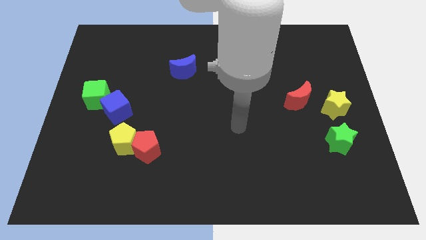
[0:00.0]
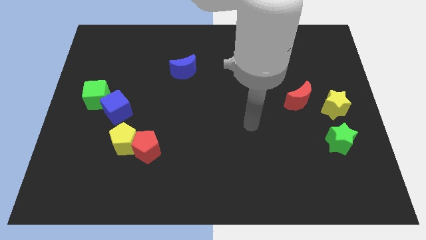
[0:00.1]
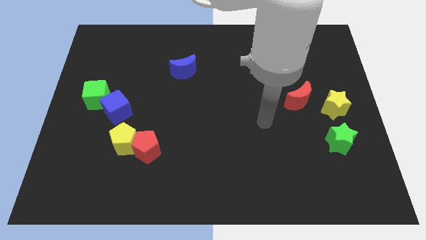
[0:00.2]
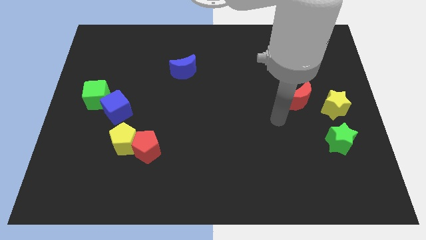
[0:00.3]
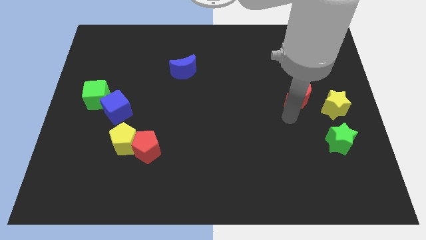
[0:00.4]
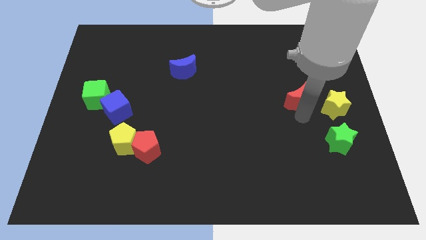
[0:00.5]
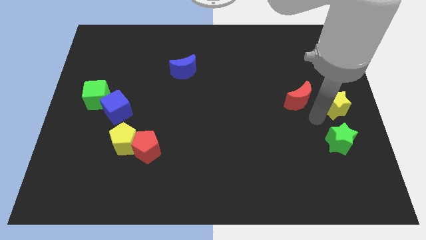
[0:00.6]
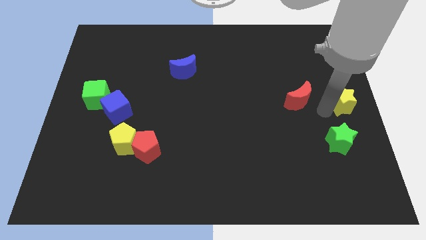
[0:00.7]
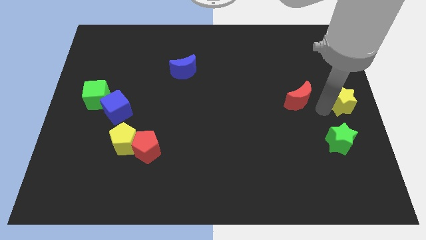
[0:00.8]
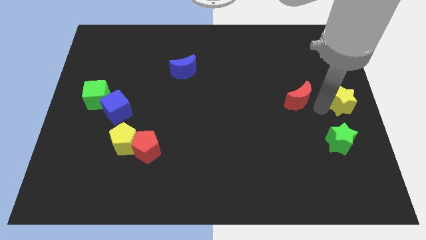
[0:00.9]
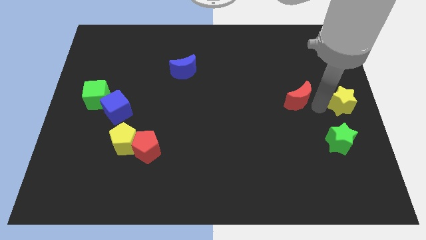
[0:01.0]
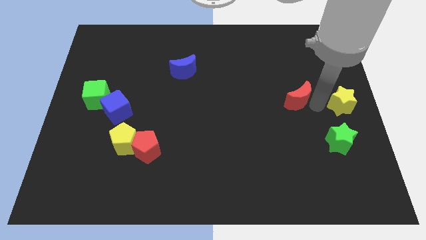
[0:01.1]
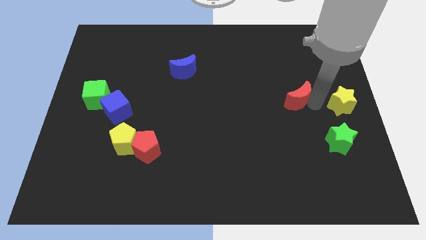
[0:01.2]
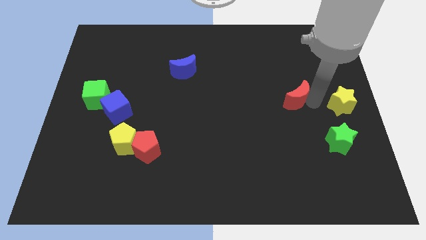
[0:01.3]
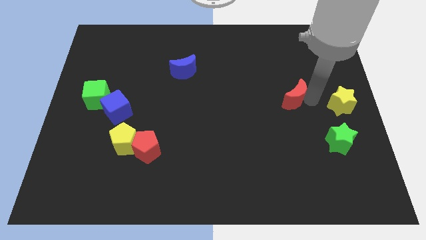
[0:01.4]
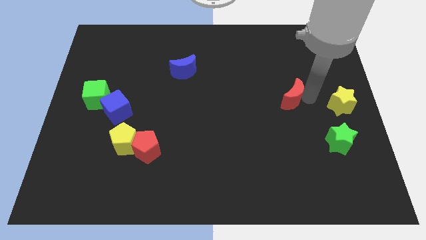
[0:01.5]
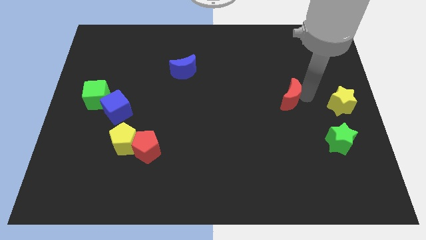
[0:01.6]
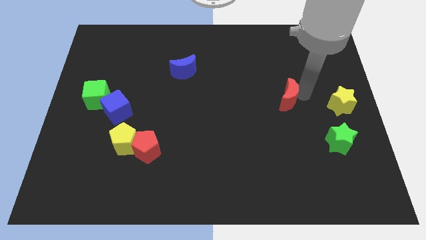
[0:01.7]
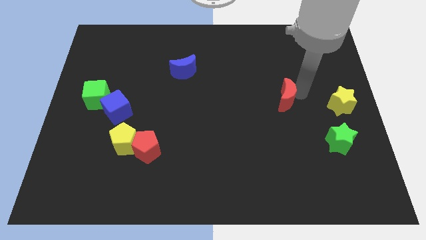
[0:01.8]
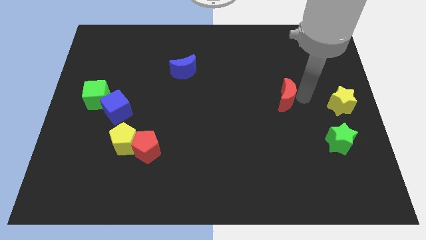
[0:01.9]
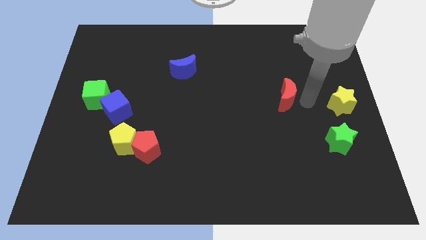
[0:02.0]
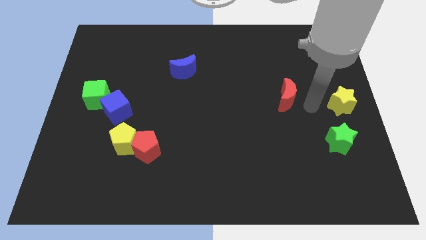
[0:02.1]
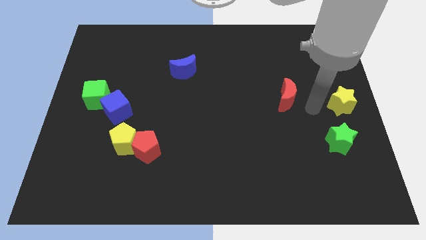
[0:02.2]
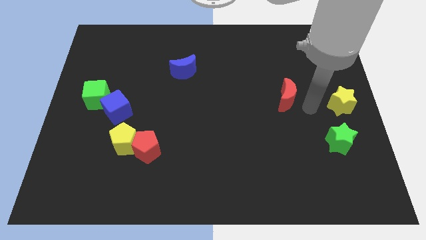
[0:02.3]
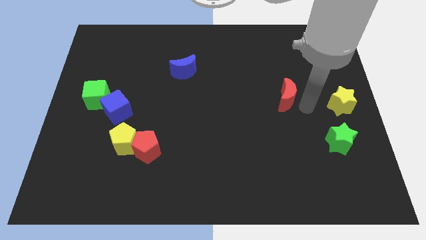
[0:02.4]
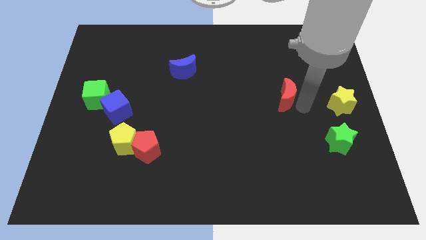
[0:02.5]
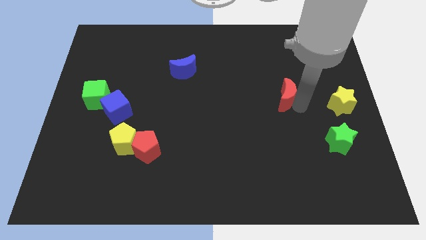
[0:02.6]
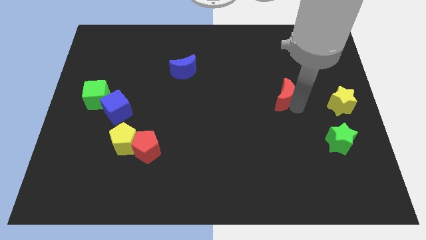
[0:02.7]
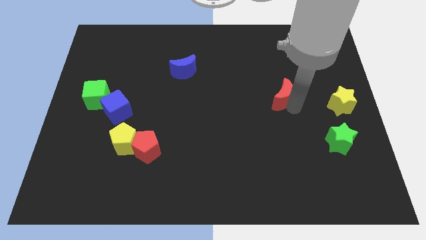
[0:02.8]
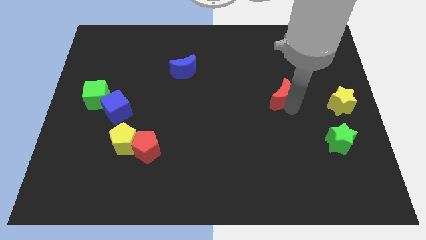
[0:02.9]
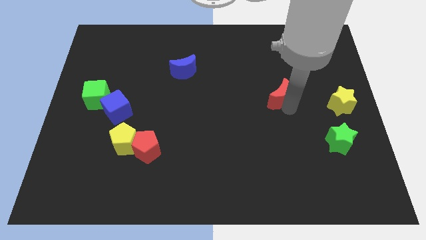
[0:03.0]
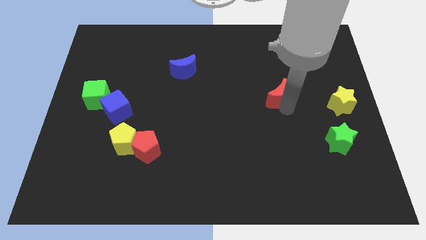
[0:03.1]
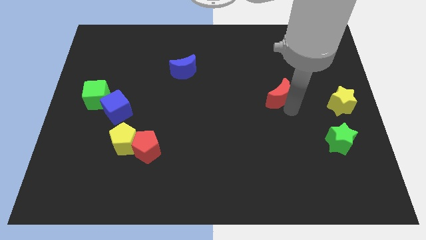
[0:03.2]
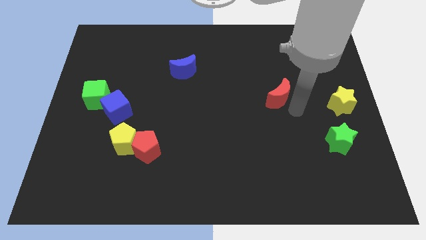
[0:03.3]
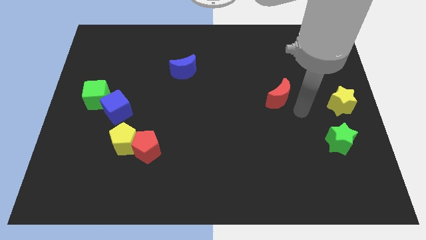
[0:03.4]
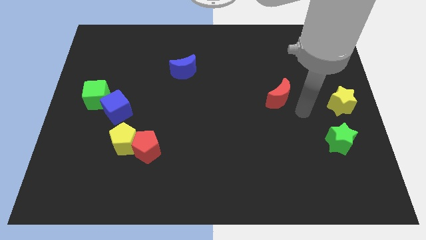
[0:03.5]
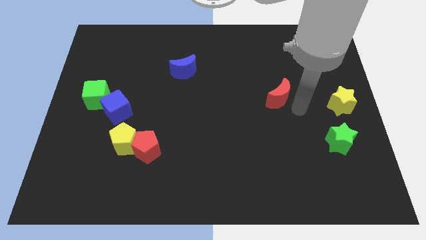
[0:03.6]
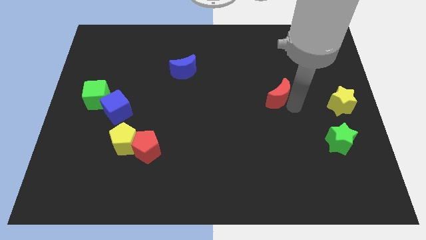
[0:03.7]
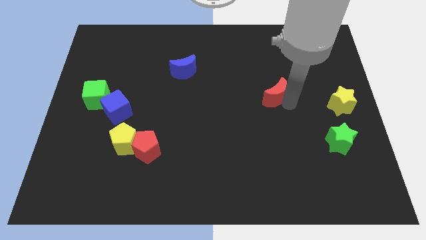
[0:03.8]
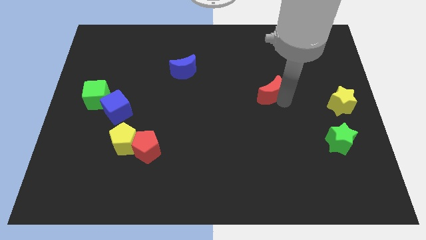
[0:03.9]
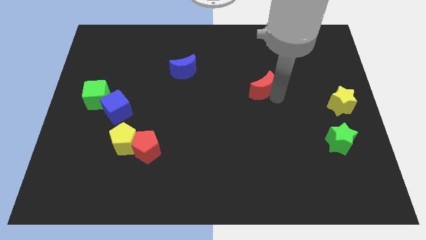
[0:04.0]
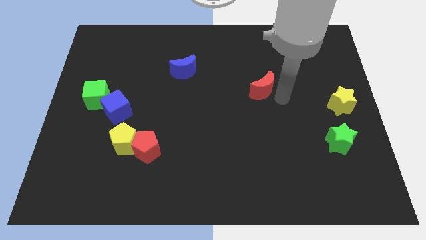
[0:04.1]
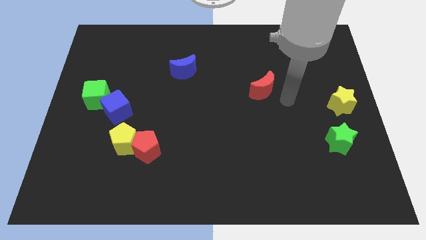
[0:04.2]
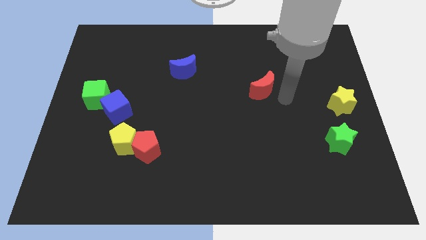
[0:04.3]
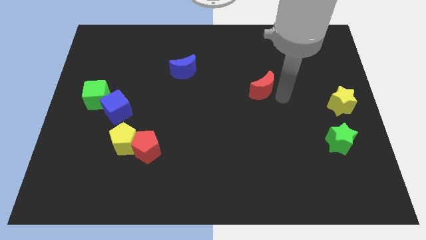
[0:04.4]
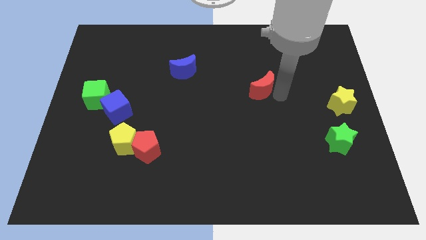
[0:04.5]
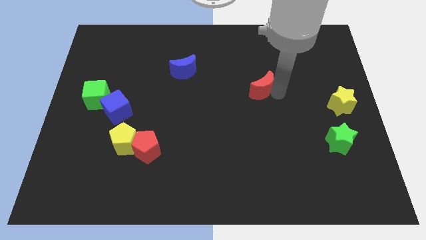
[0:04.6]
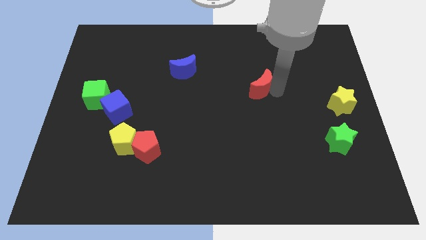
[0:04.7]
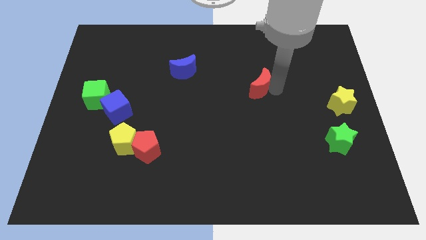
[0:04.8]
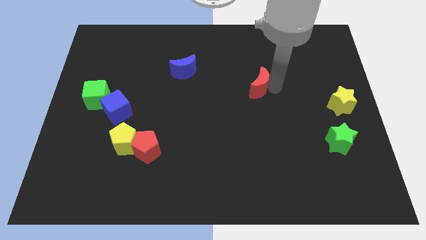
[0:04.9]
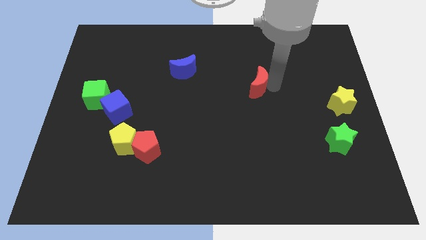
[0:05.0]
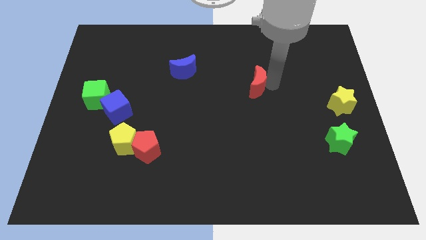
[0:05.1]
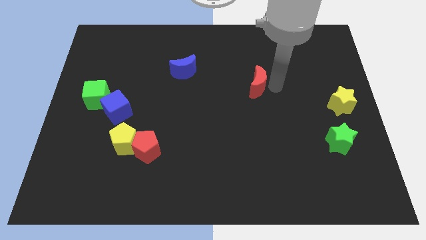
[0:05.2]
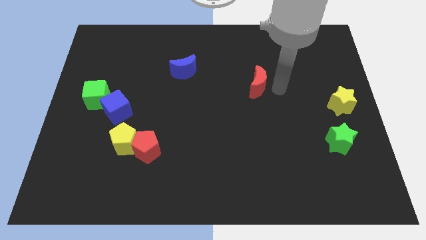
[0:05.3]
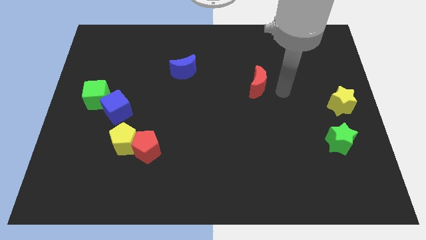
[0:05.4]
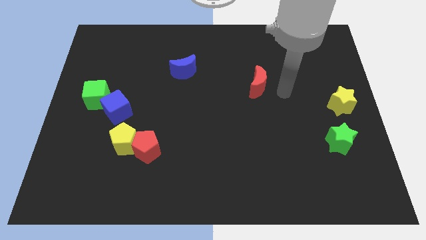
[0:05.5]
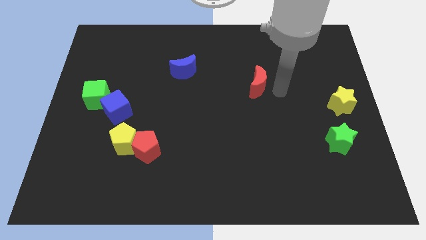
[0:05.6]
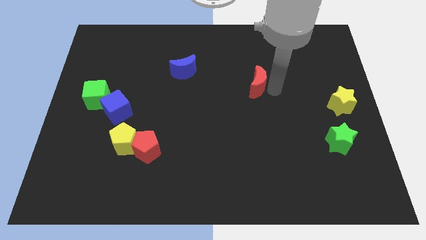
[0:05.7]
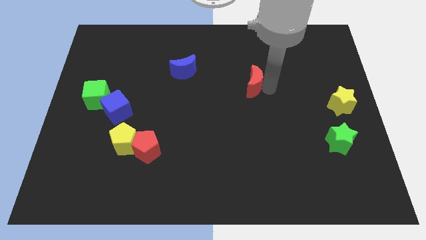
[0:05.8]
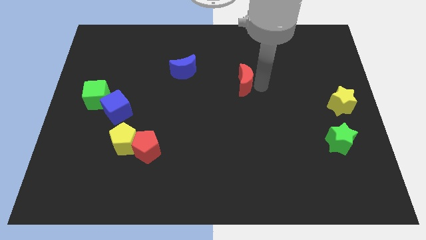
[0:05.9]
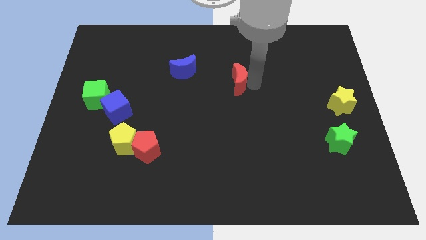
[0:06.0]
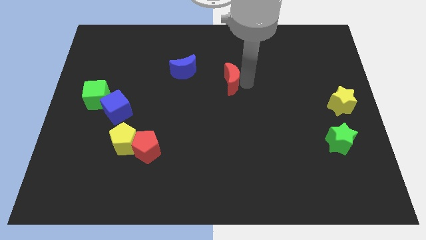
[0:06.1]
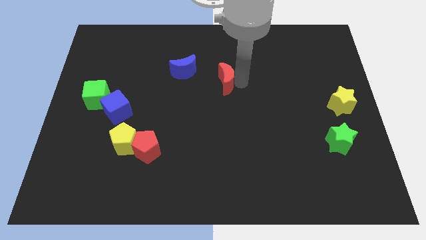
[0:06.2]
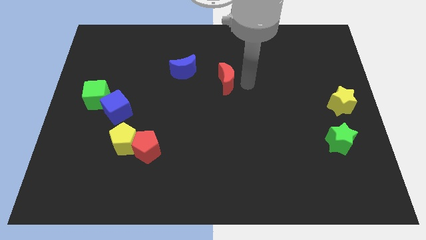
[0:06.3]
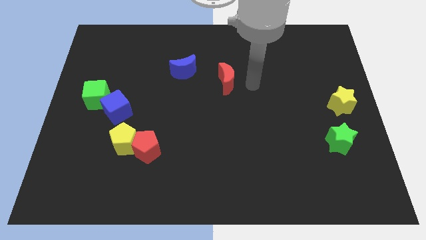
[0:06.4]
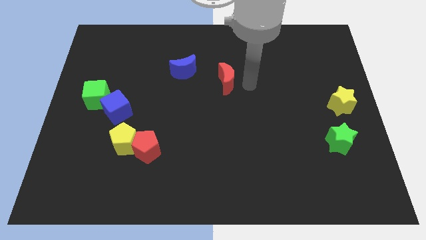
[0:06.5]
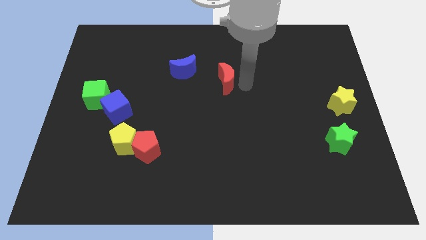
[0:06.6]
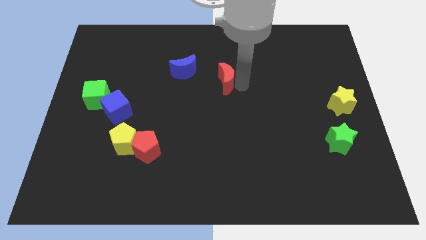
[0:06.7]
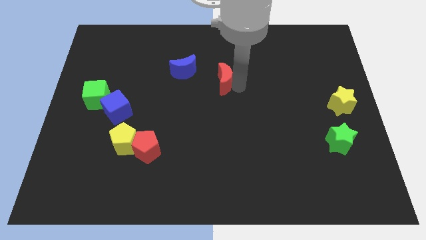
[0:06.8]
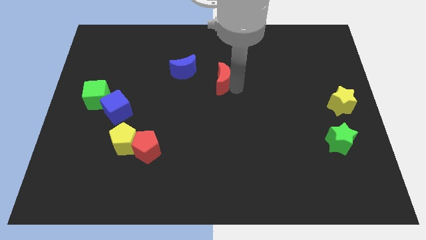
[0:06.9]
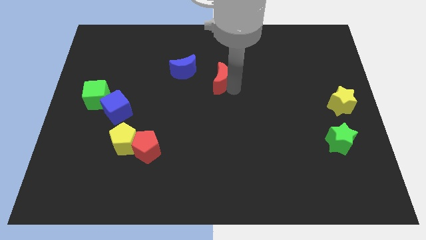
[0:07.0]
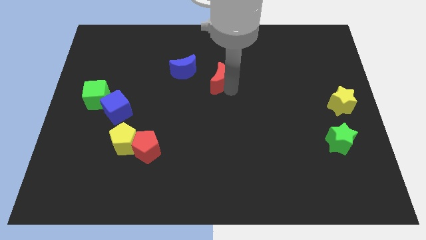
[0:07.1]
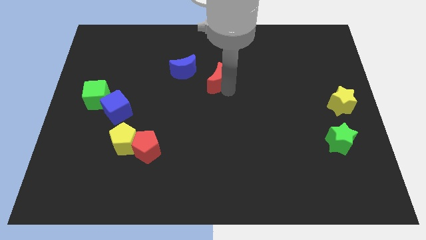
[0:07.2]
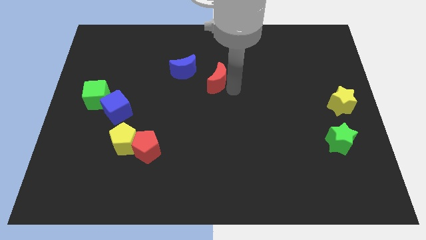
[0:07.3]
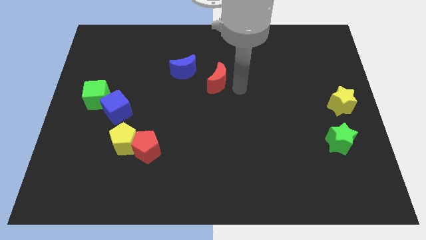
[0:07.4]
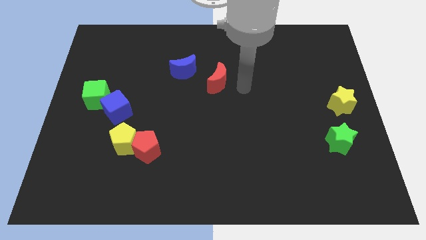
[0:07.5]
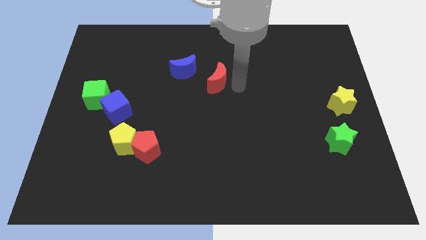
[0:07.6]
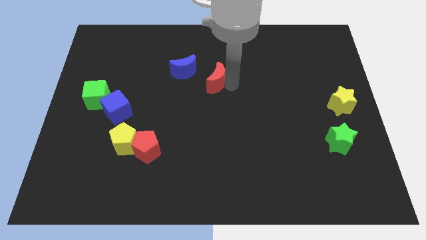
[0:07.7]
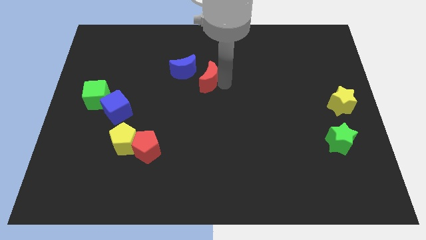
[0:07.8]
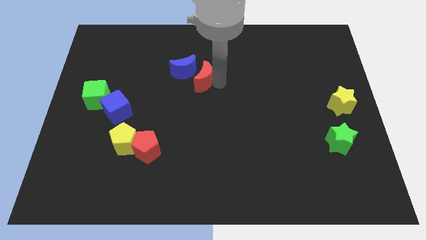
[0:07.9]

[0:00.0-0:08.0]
slide the red moon next to the blue moon
